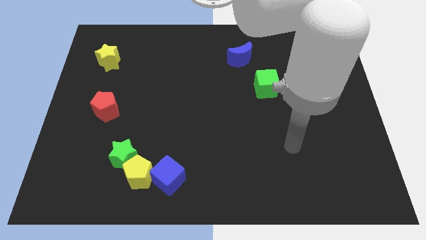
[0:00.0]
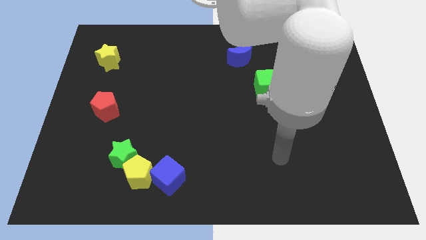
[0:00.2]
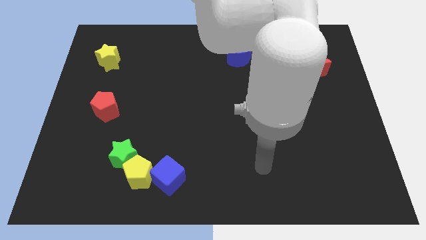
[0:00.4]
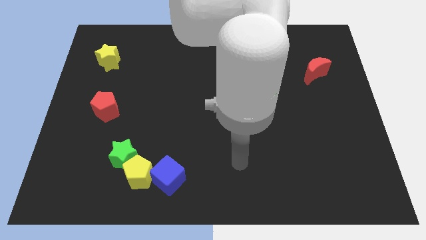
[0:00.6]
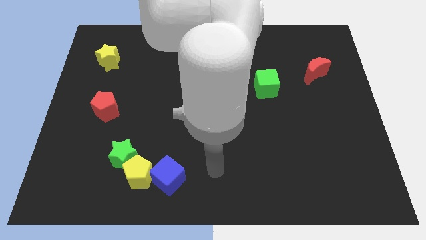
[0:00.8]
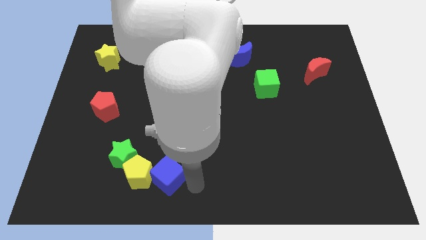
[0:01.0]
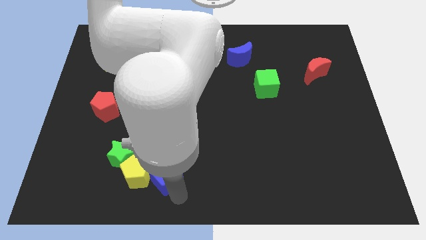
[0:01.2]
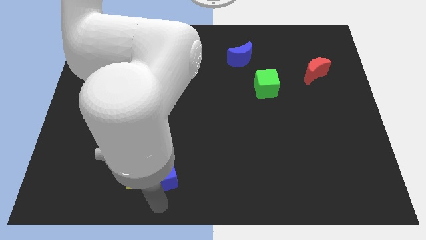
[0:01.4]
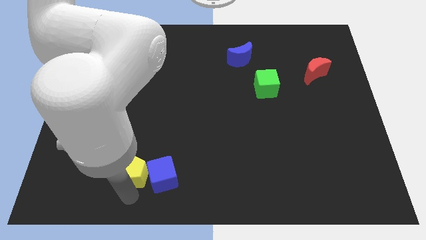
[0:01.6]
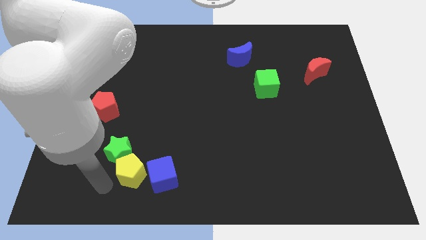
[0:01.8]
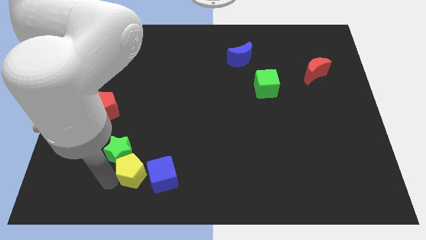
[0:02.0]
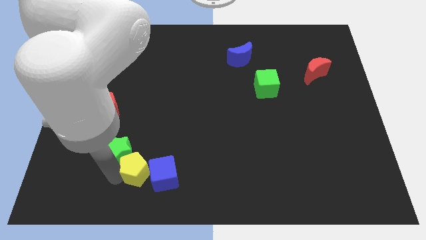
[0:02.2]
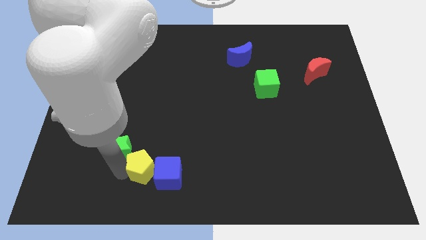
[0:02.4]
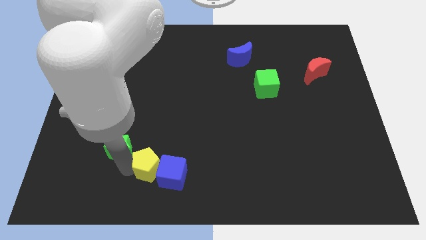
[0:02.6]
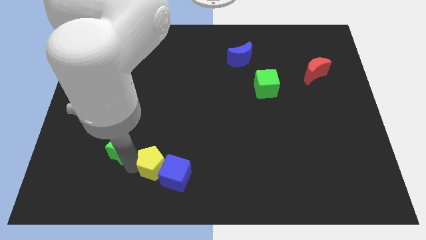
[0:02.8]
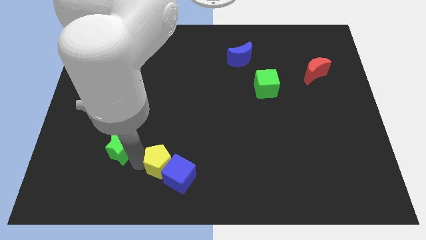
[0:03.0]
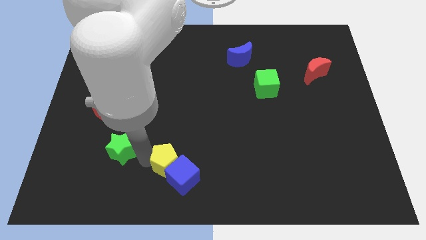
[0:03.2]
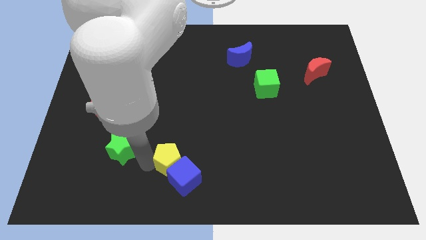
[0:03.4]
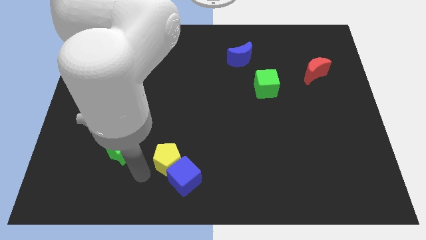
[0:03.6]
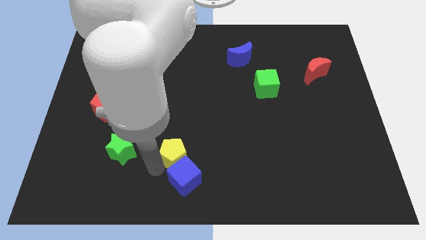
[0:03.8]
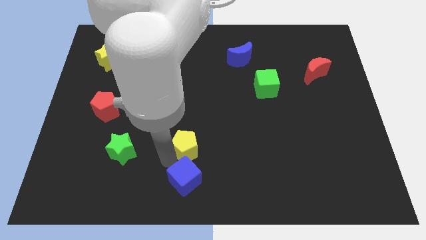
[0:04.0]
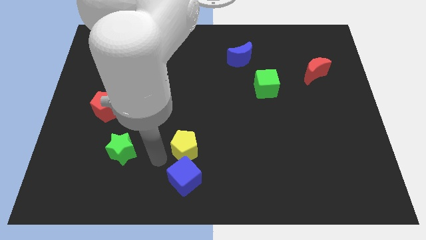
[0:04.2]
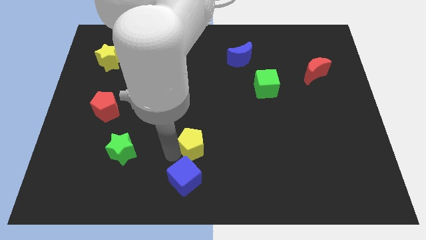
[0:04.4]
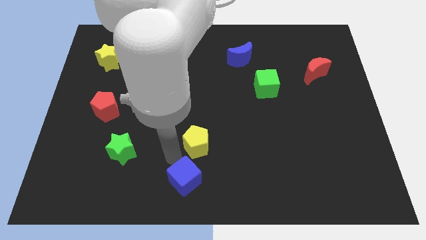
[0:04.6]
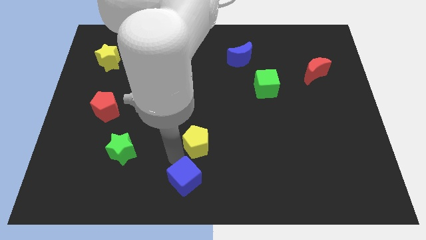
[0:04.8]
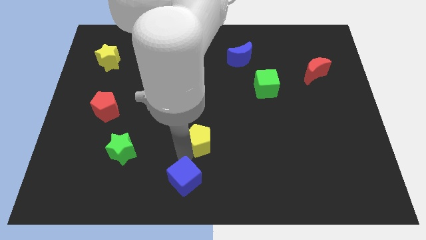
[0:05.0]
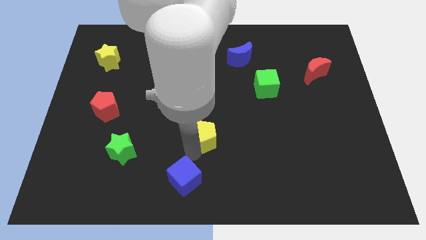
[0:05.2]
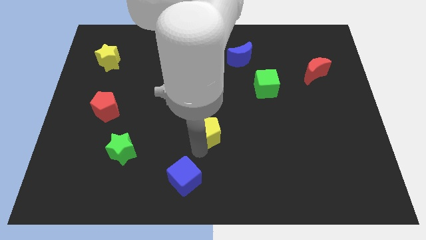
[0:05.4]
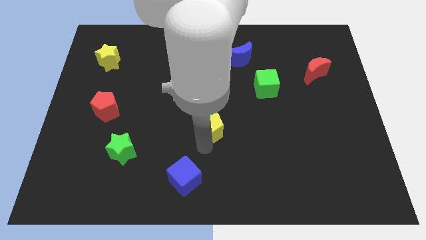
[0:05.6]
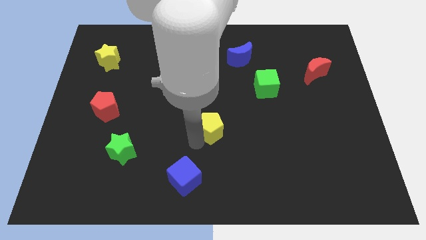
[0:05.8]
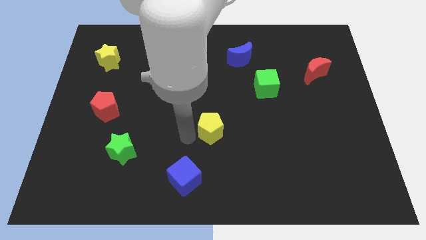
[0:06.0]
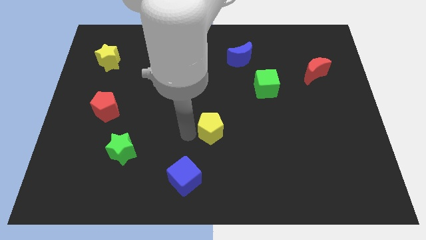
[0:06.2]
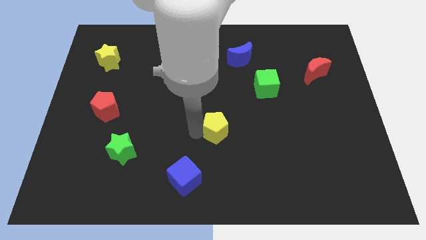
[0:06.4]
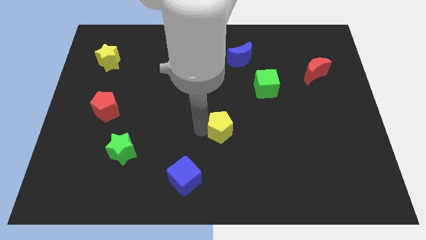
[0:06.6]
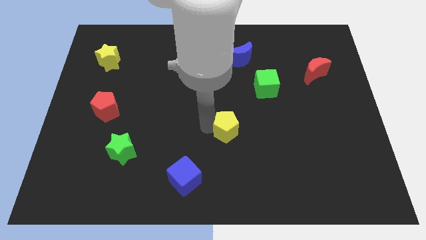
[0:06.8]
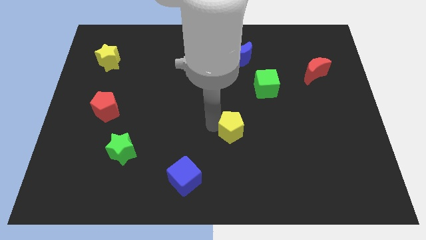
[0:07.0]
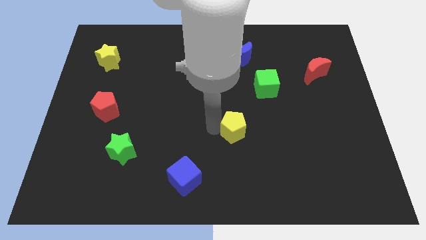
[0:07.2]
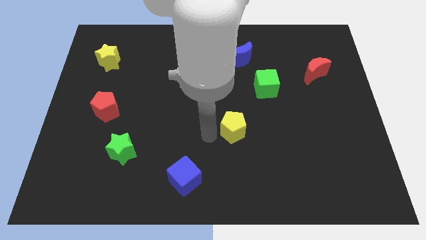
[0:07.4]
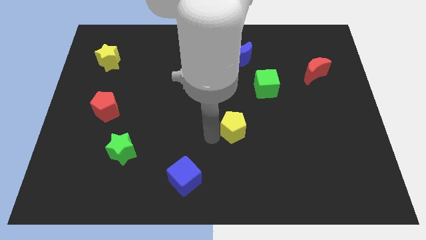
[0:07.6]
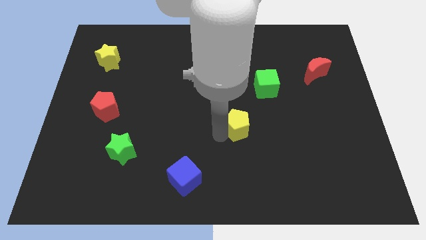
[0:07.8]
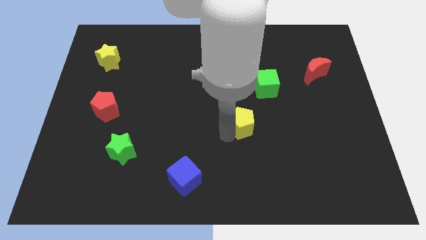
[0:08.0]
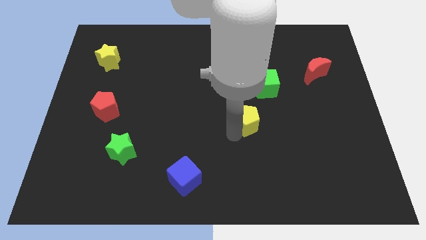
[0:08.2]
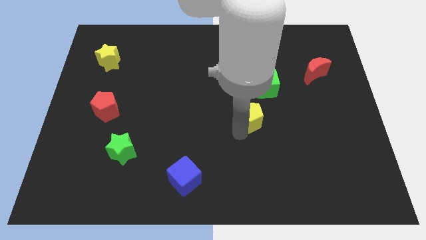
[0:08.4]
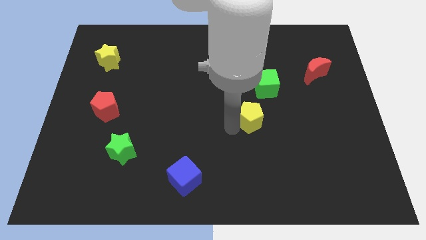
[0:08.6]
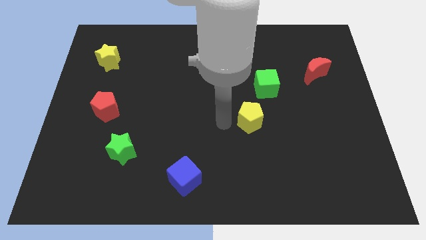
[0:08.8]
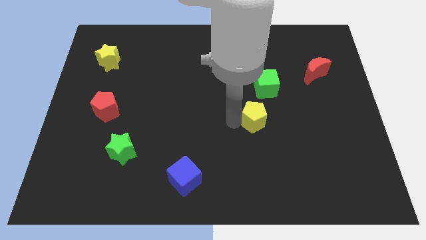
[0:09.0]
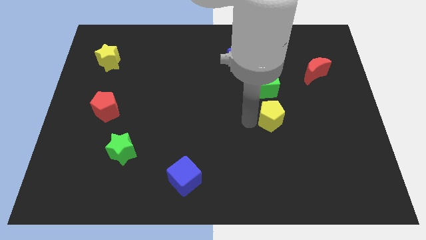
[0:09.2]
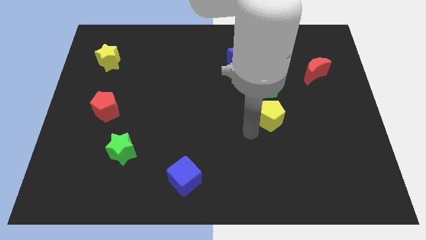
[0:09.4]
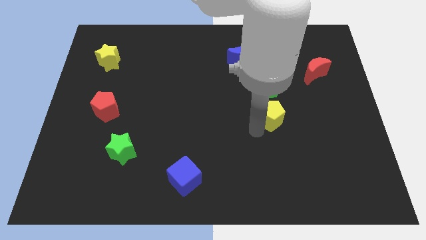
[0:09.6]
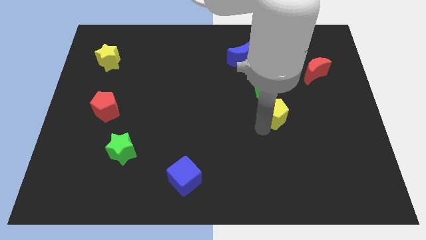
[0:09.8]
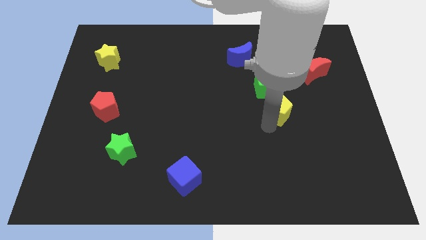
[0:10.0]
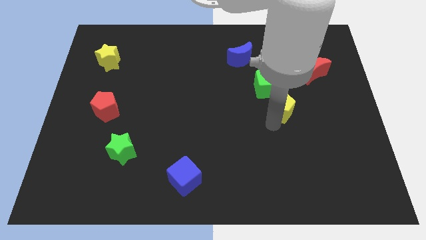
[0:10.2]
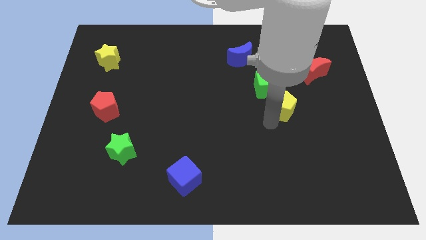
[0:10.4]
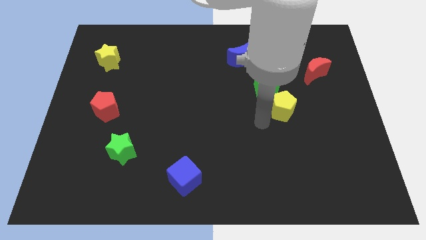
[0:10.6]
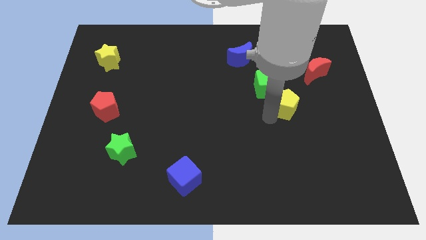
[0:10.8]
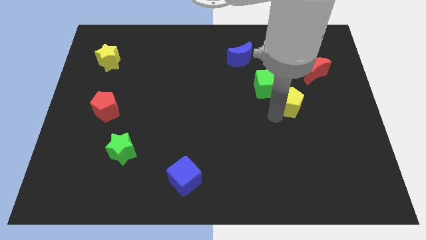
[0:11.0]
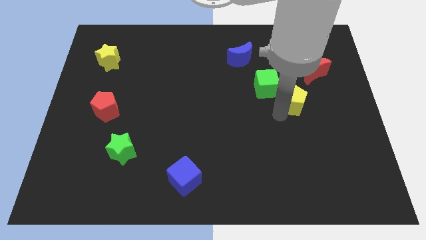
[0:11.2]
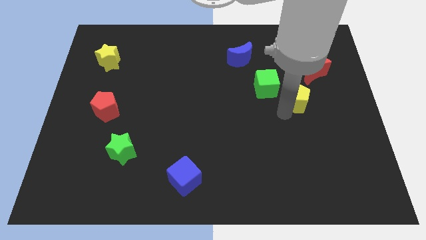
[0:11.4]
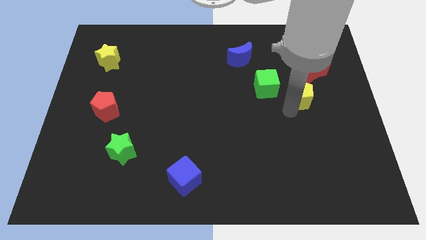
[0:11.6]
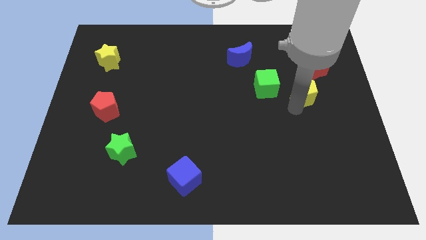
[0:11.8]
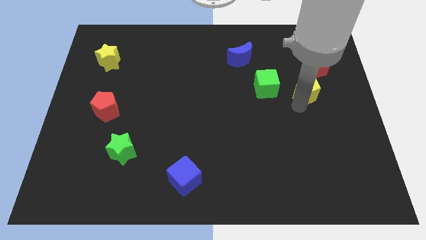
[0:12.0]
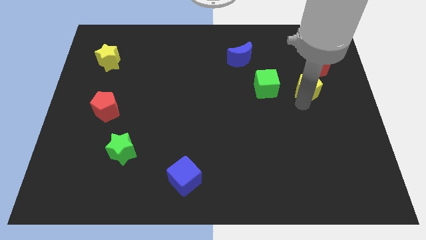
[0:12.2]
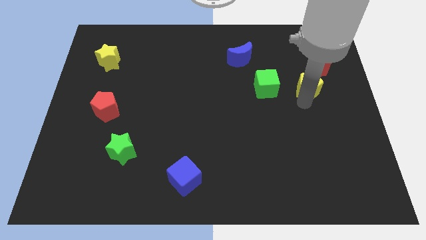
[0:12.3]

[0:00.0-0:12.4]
push the yellow pentagon next to the red moon

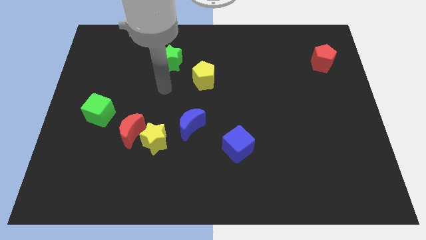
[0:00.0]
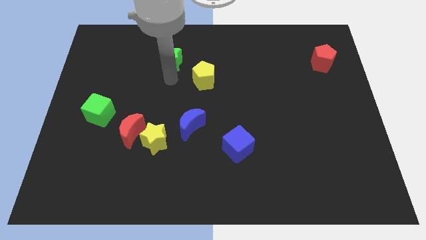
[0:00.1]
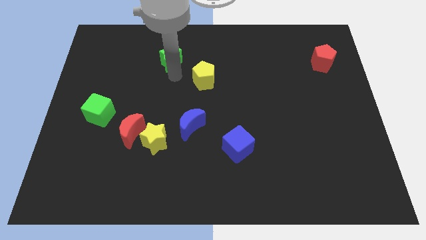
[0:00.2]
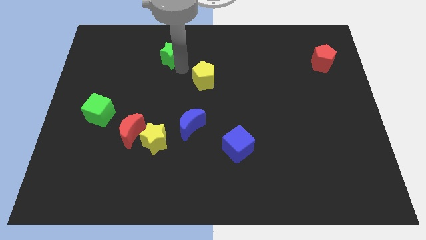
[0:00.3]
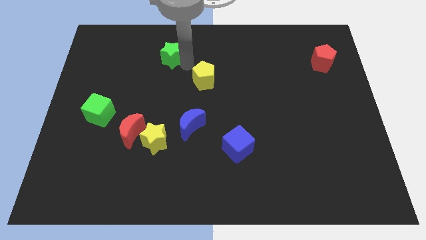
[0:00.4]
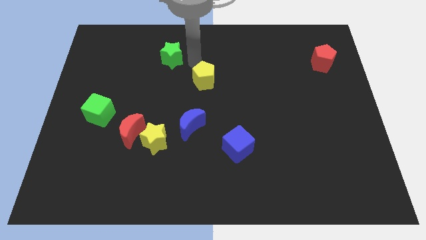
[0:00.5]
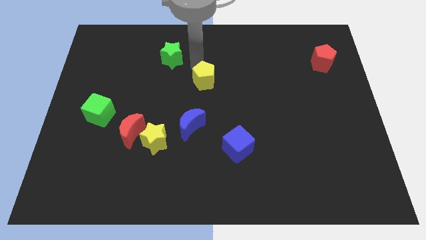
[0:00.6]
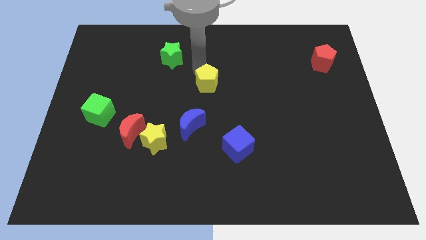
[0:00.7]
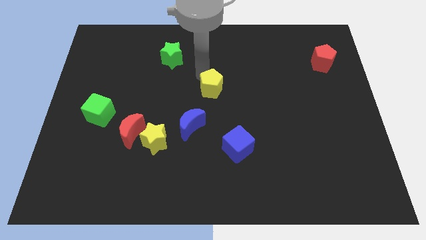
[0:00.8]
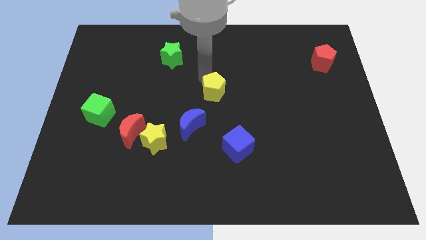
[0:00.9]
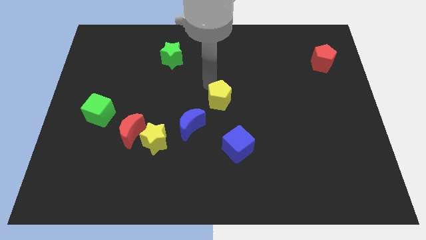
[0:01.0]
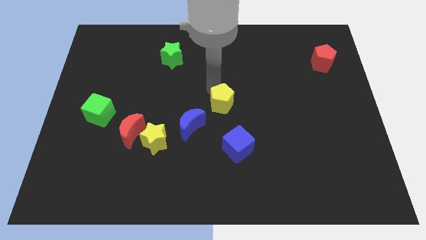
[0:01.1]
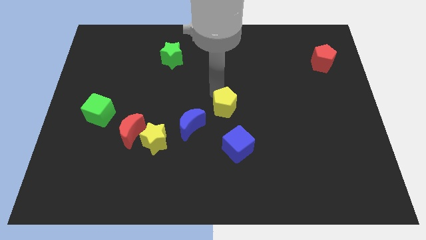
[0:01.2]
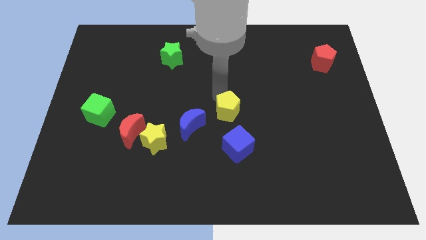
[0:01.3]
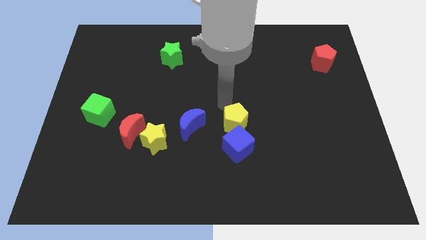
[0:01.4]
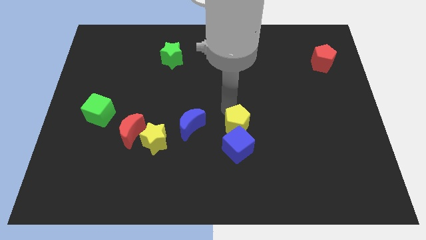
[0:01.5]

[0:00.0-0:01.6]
put the yellow pentagon towards the blue cube
